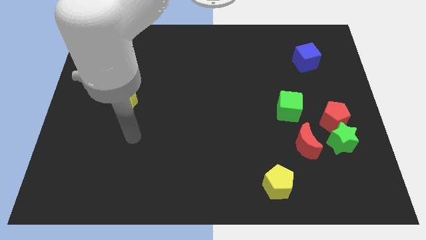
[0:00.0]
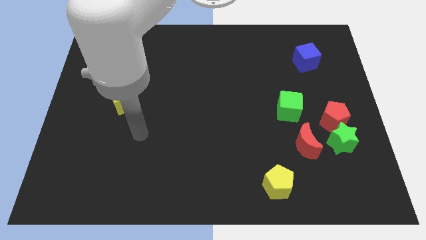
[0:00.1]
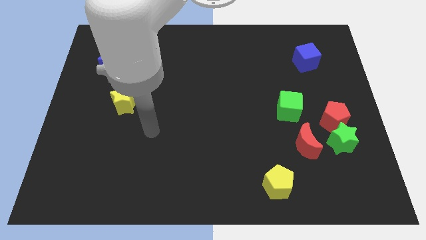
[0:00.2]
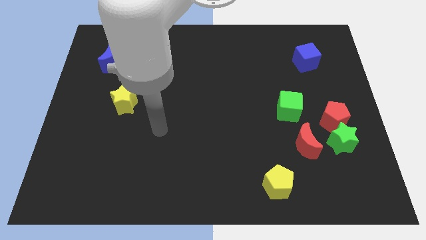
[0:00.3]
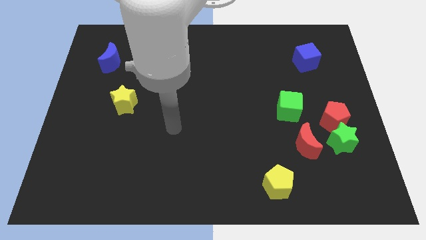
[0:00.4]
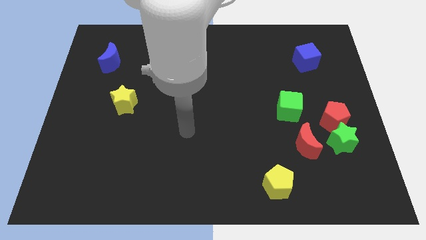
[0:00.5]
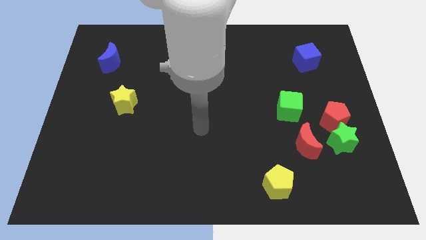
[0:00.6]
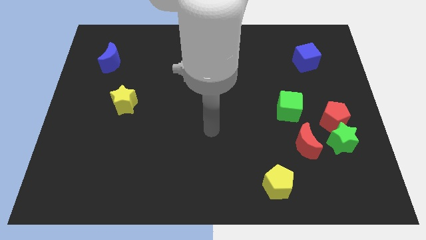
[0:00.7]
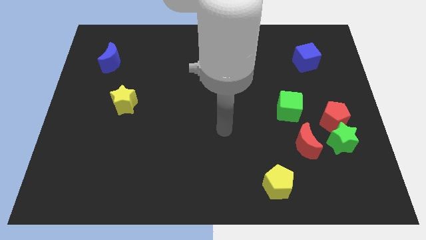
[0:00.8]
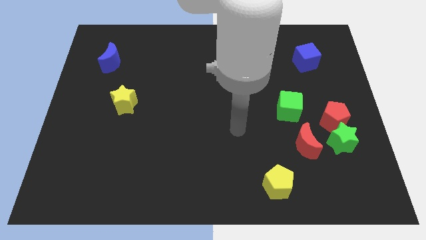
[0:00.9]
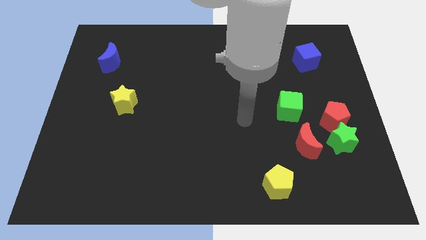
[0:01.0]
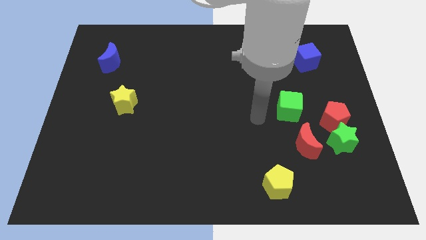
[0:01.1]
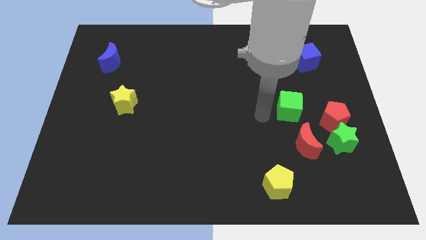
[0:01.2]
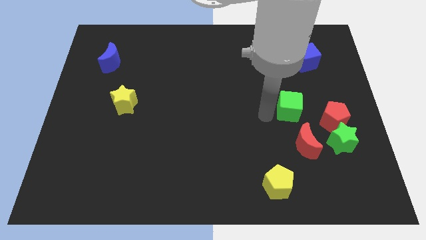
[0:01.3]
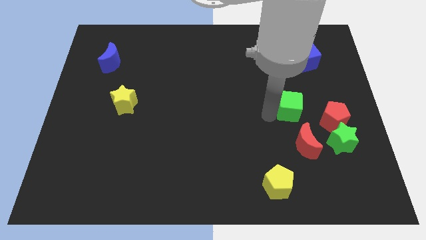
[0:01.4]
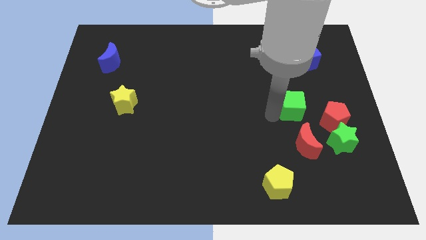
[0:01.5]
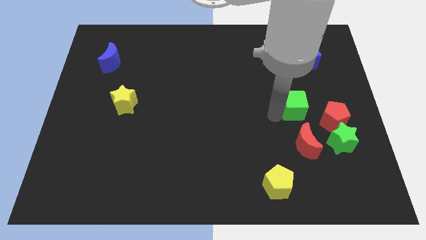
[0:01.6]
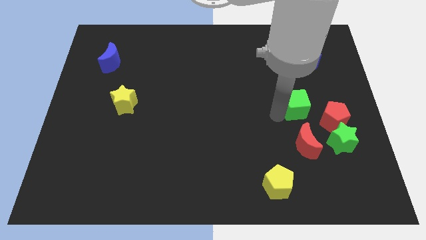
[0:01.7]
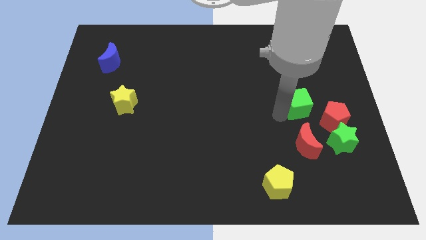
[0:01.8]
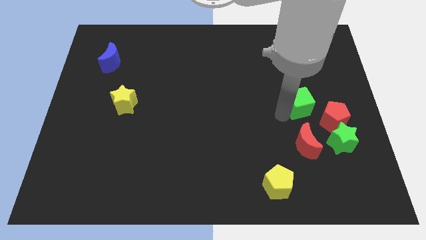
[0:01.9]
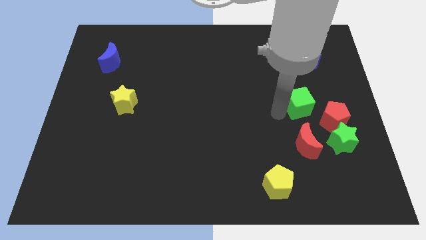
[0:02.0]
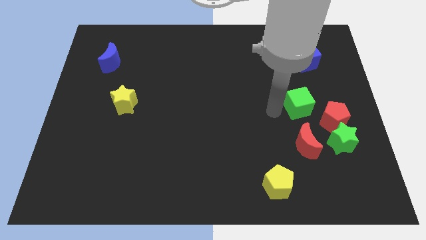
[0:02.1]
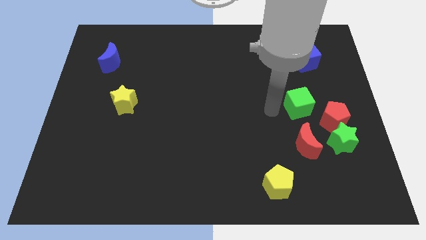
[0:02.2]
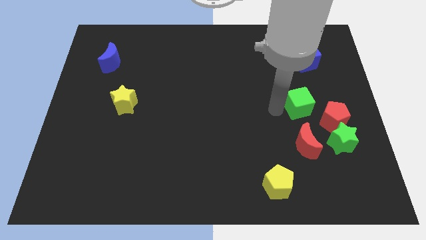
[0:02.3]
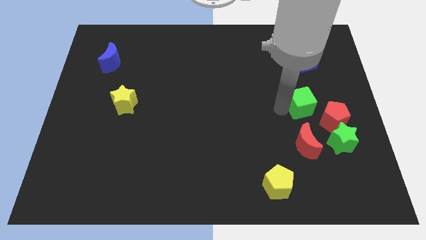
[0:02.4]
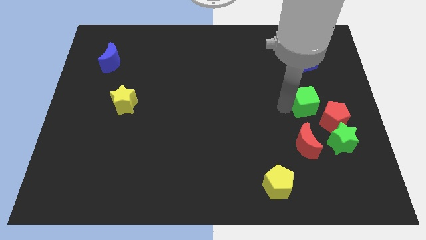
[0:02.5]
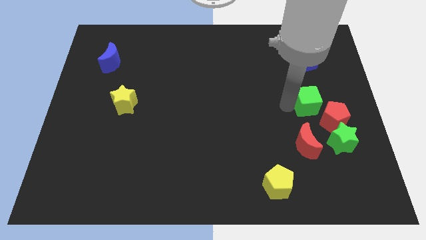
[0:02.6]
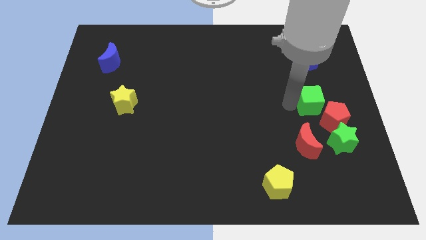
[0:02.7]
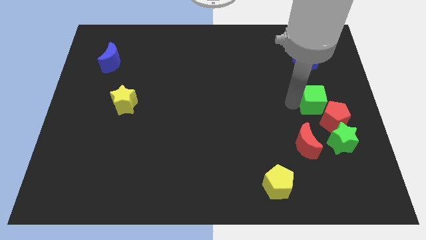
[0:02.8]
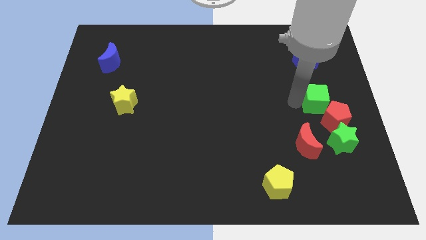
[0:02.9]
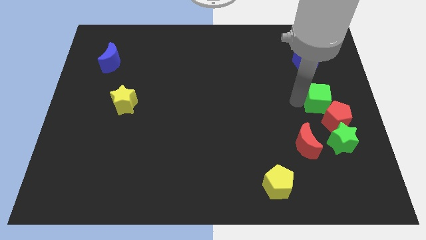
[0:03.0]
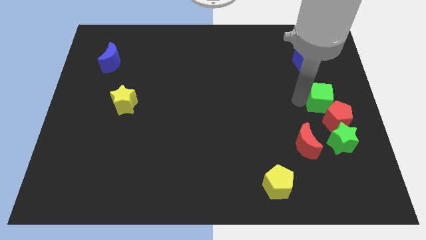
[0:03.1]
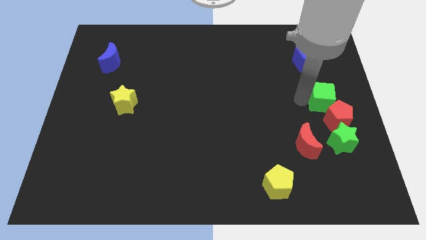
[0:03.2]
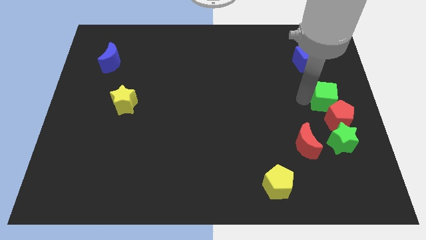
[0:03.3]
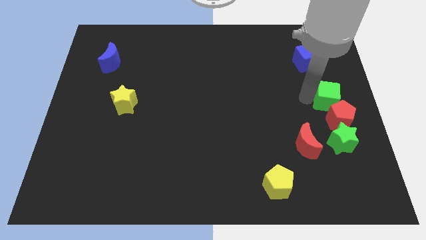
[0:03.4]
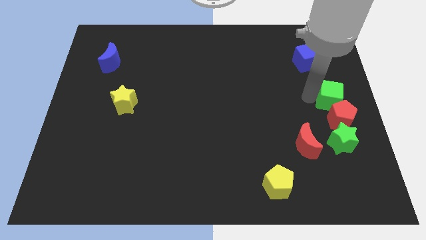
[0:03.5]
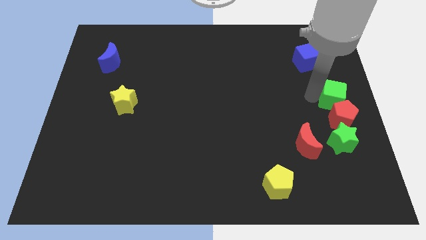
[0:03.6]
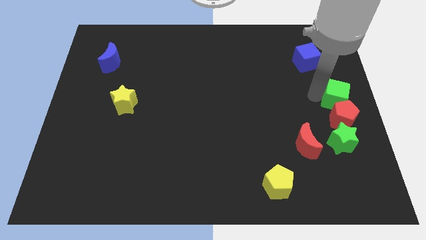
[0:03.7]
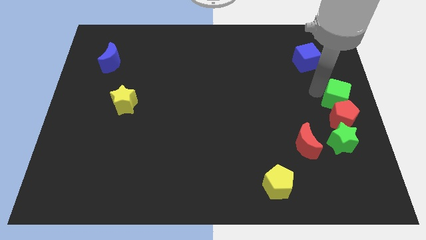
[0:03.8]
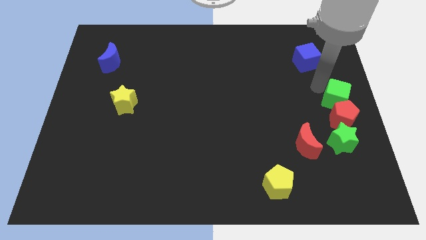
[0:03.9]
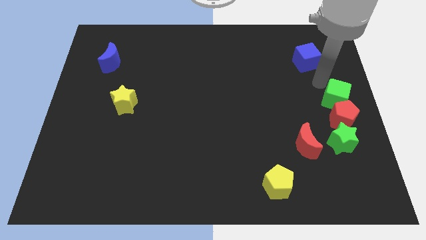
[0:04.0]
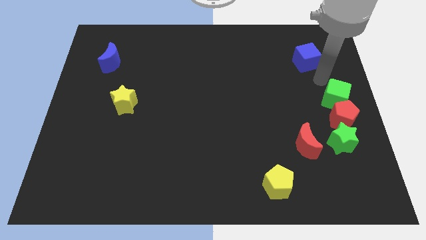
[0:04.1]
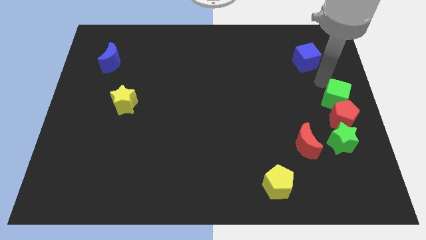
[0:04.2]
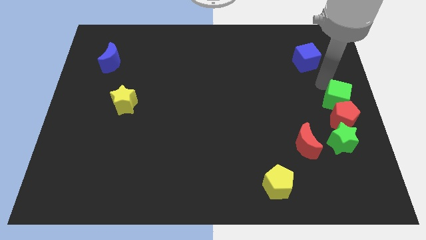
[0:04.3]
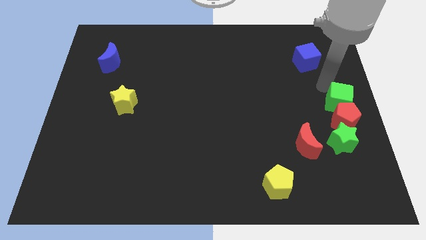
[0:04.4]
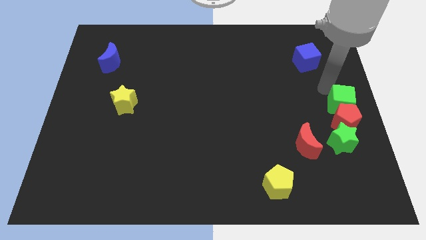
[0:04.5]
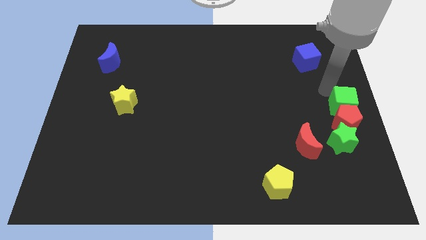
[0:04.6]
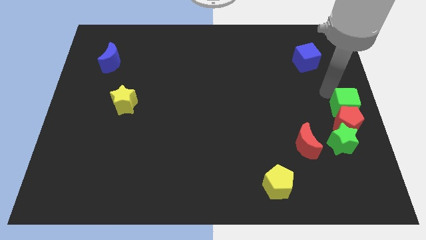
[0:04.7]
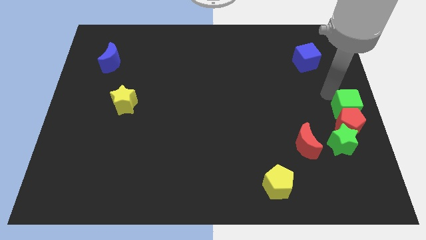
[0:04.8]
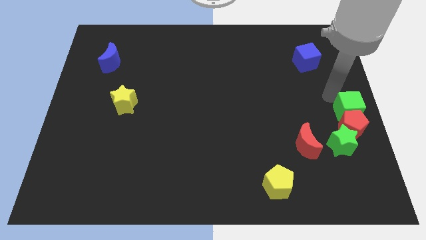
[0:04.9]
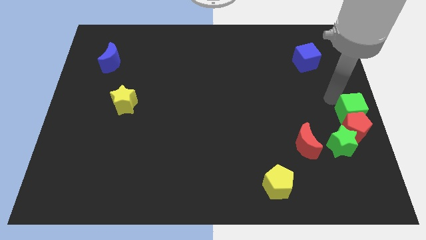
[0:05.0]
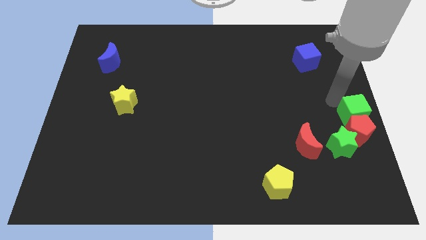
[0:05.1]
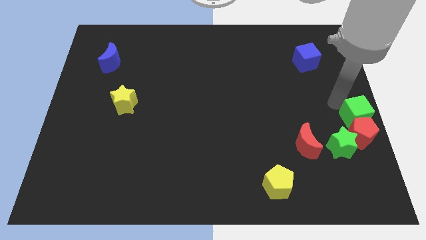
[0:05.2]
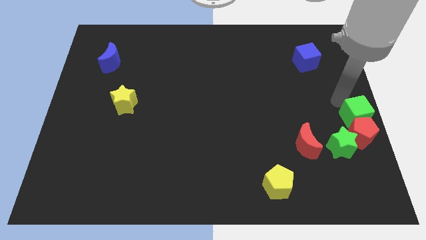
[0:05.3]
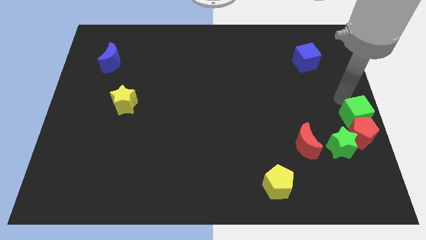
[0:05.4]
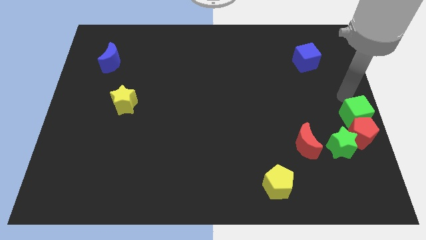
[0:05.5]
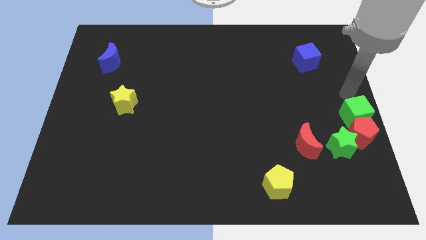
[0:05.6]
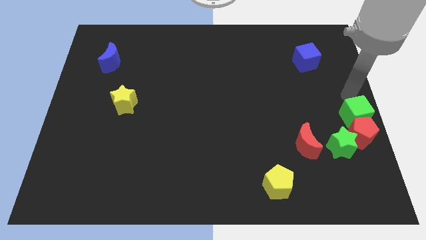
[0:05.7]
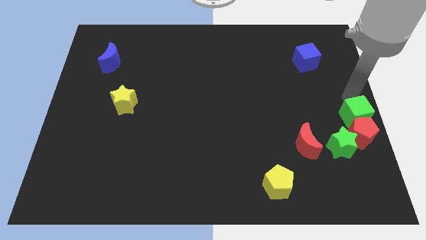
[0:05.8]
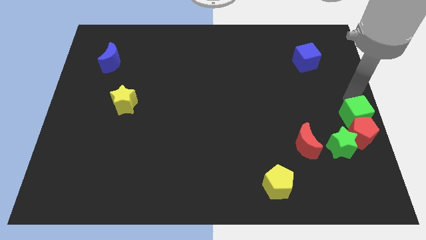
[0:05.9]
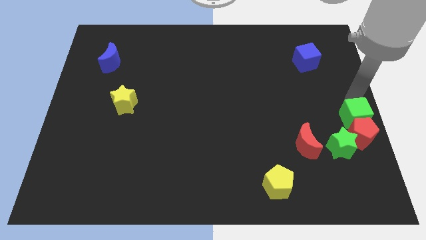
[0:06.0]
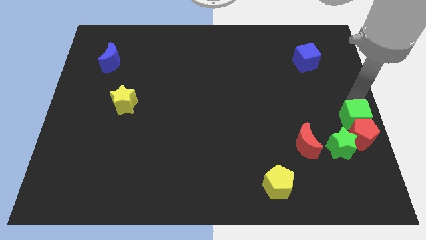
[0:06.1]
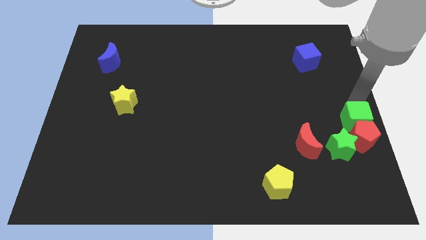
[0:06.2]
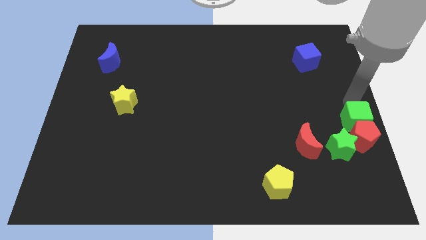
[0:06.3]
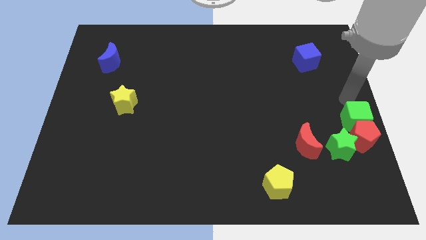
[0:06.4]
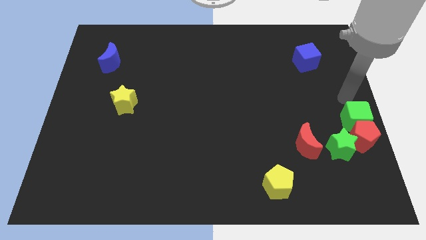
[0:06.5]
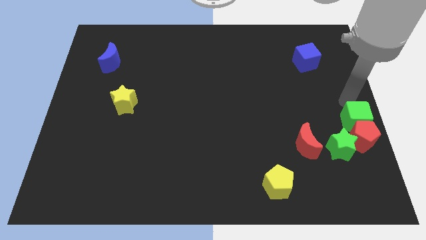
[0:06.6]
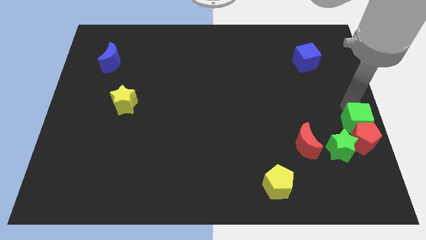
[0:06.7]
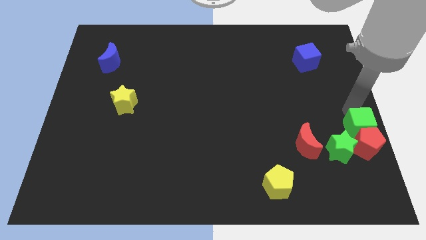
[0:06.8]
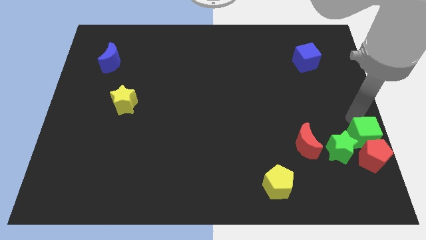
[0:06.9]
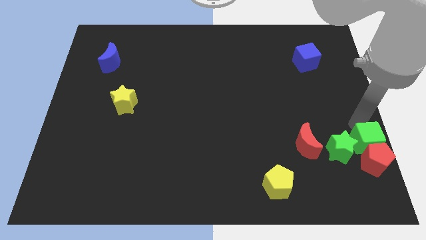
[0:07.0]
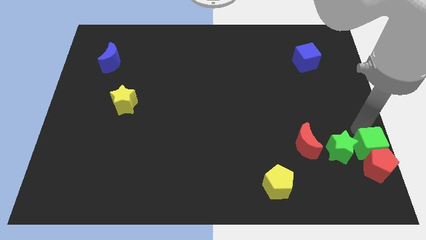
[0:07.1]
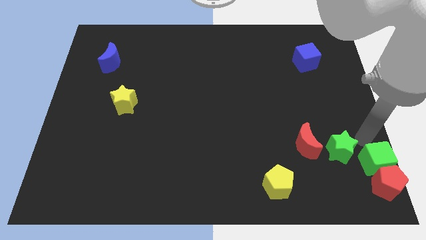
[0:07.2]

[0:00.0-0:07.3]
put the green cube to the bottom right of the board
